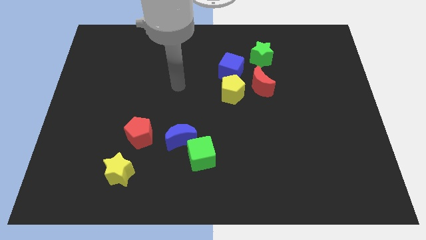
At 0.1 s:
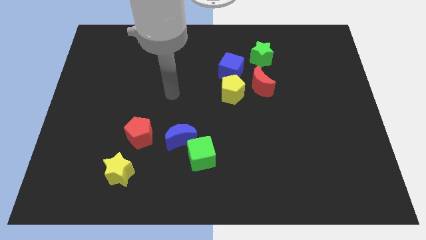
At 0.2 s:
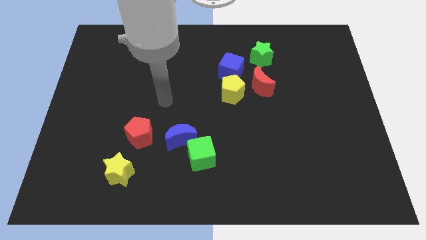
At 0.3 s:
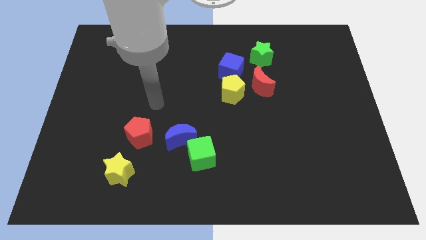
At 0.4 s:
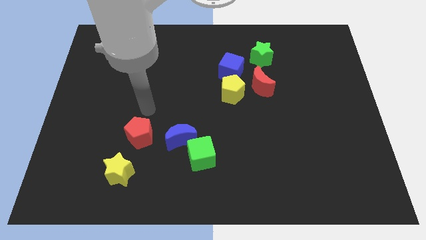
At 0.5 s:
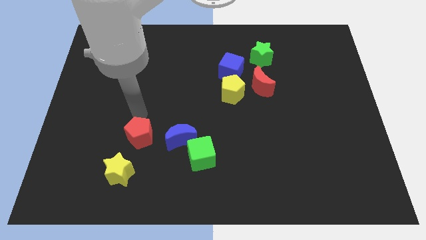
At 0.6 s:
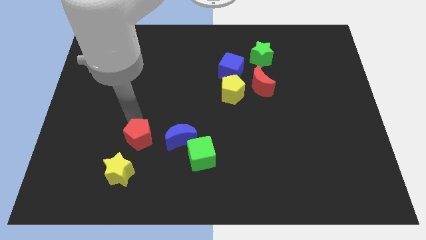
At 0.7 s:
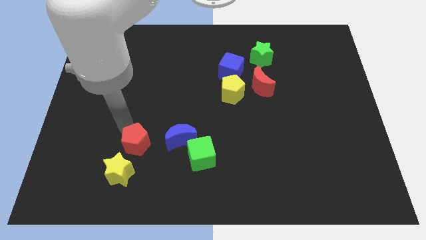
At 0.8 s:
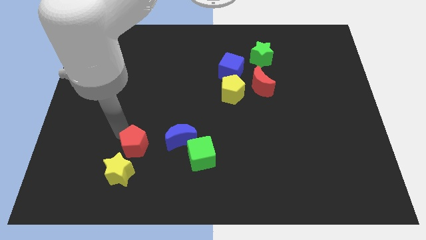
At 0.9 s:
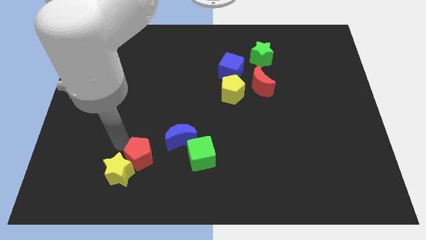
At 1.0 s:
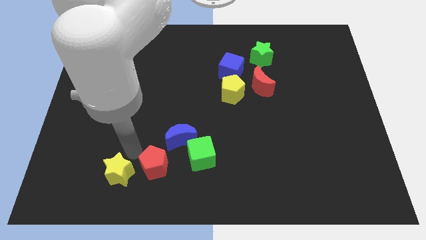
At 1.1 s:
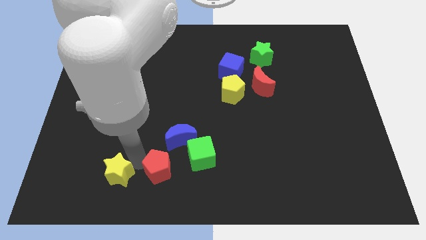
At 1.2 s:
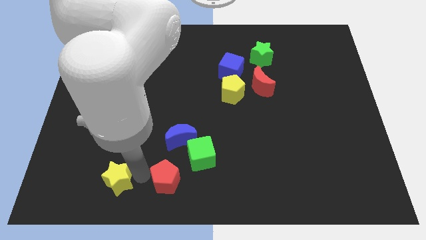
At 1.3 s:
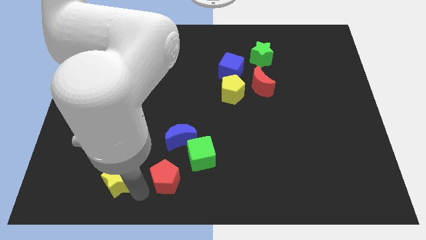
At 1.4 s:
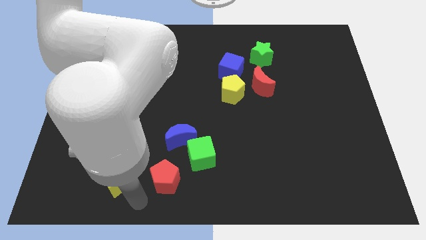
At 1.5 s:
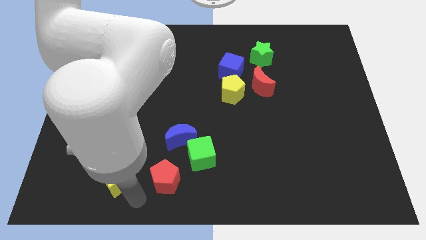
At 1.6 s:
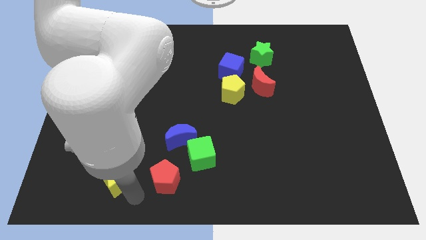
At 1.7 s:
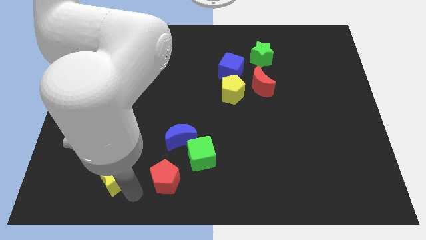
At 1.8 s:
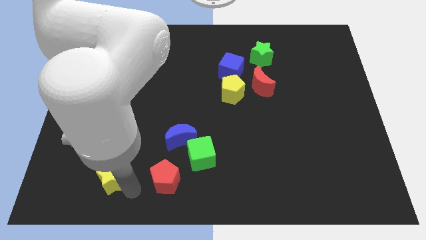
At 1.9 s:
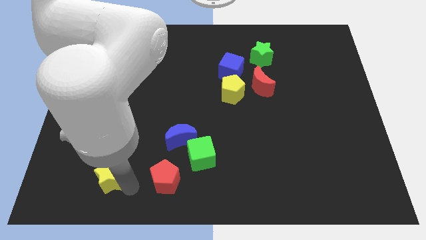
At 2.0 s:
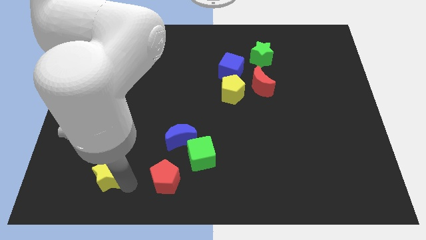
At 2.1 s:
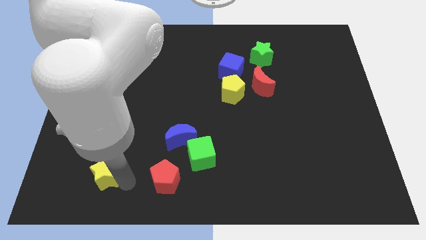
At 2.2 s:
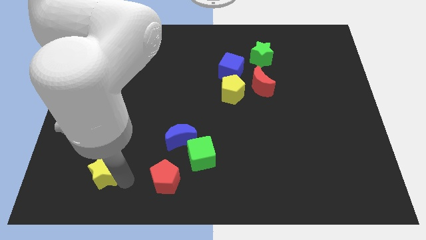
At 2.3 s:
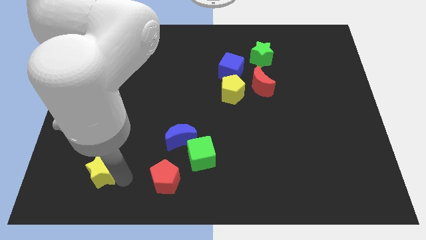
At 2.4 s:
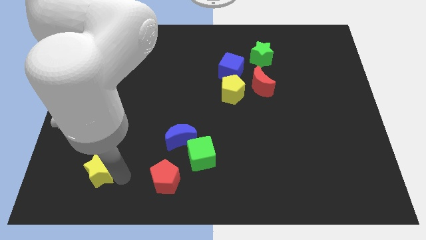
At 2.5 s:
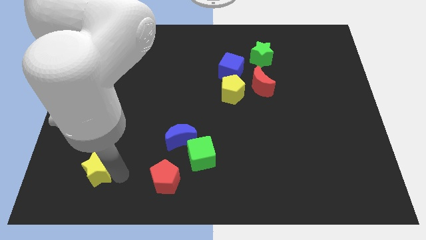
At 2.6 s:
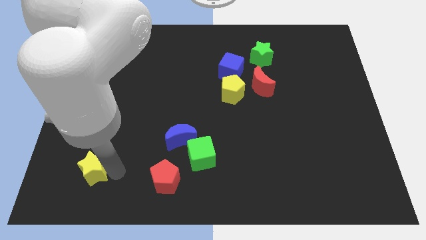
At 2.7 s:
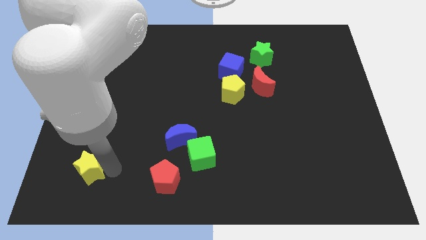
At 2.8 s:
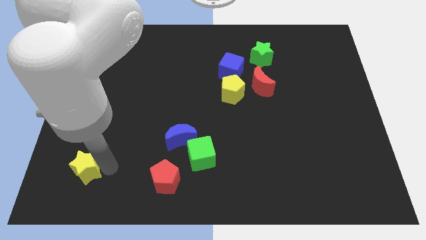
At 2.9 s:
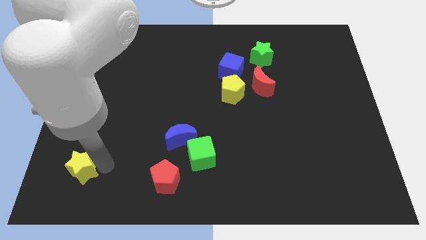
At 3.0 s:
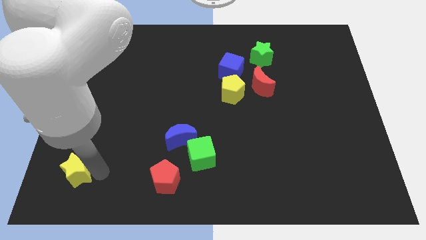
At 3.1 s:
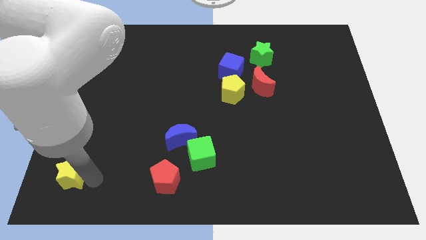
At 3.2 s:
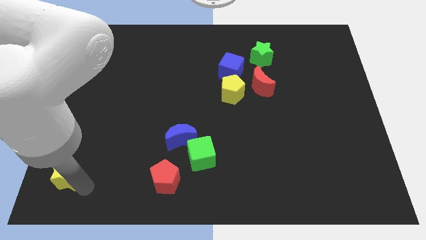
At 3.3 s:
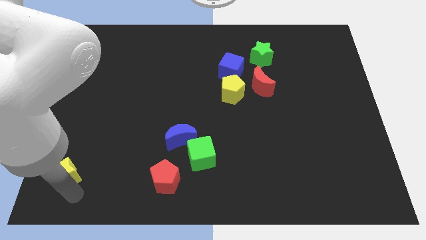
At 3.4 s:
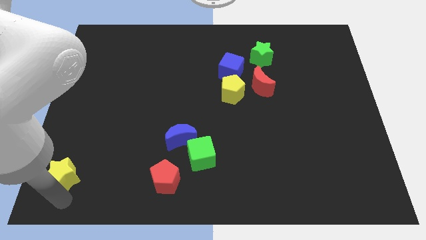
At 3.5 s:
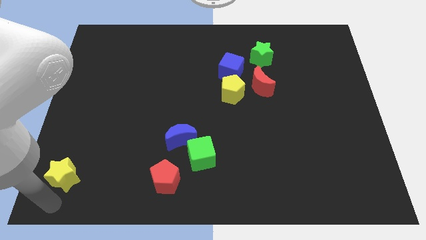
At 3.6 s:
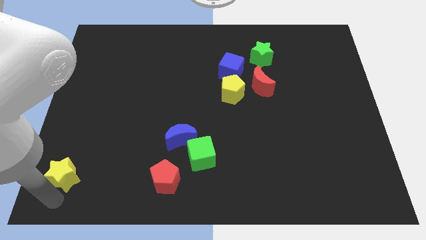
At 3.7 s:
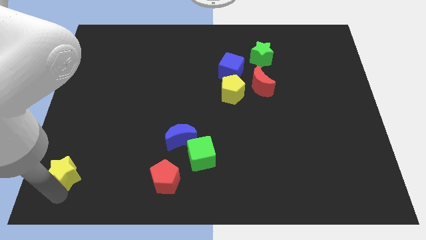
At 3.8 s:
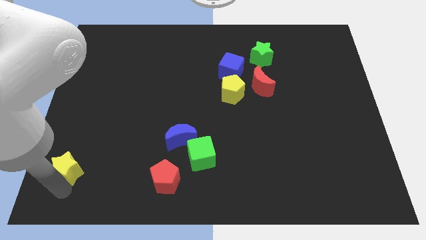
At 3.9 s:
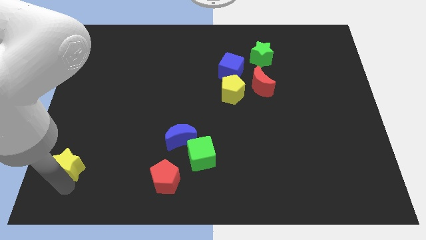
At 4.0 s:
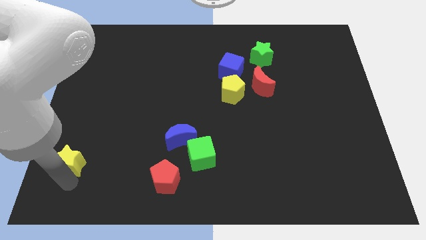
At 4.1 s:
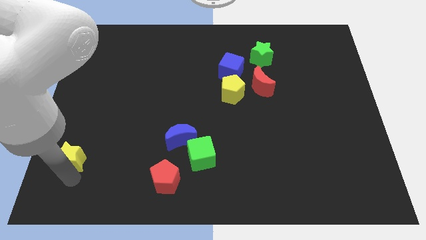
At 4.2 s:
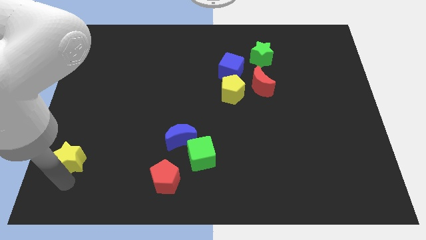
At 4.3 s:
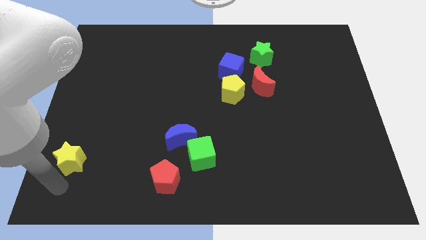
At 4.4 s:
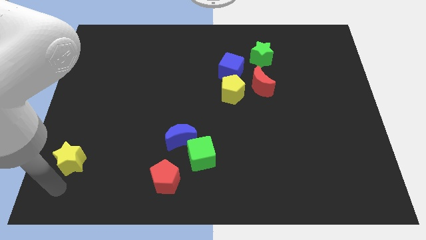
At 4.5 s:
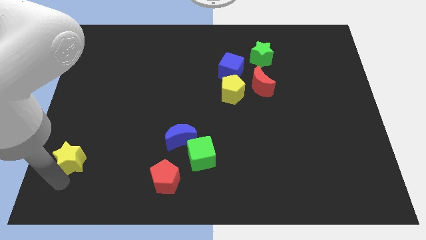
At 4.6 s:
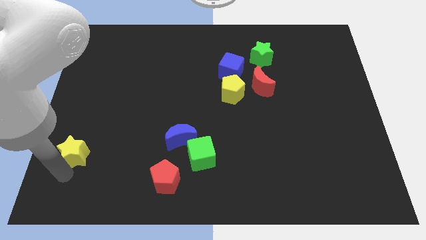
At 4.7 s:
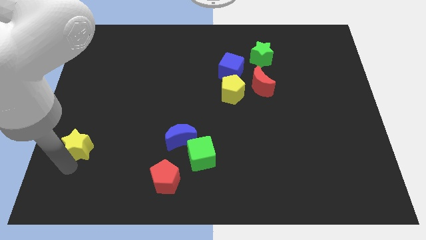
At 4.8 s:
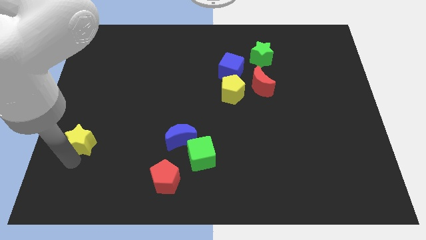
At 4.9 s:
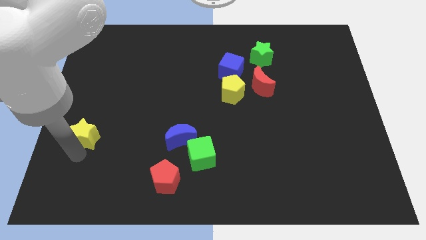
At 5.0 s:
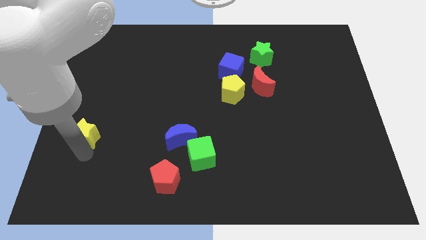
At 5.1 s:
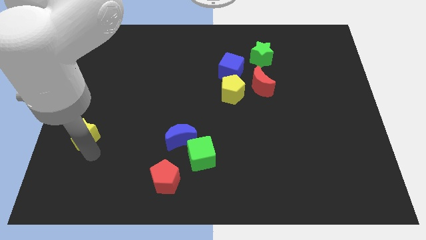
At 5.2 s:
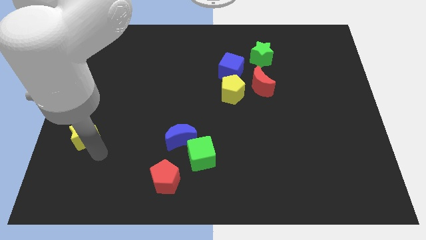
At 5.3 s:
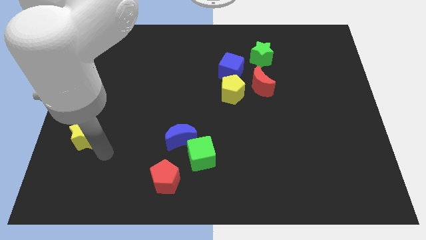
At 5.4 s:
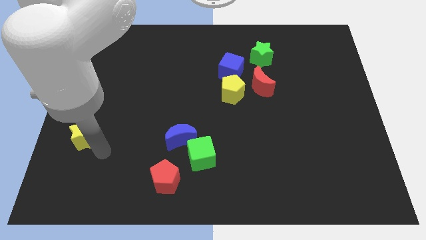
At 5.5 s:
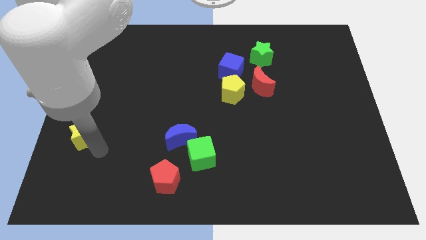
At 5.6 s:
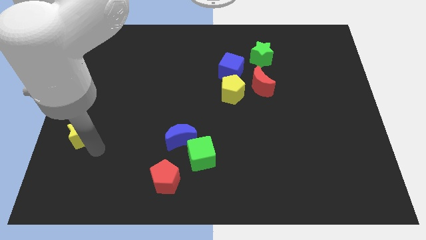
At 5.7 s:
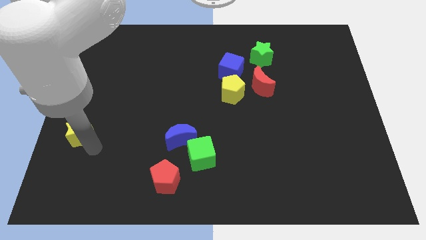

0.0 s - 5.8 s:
slide the yellow star to the center left

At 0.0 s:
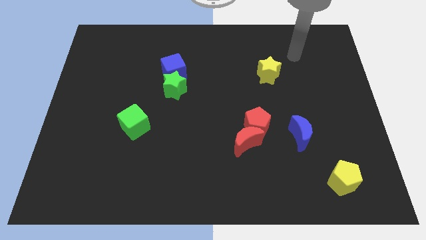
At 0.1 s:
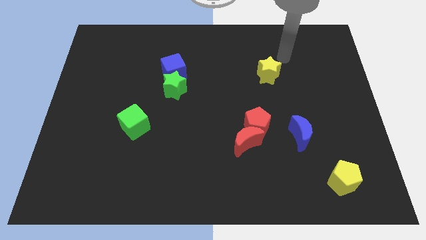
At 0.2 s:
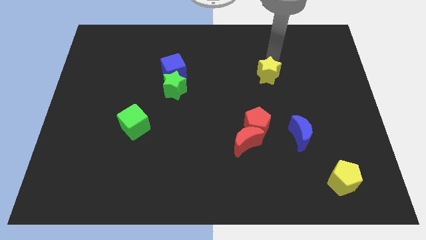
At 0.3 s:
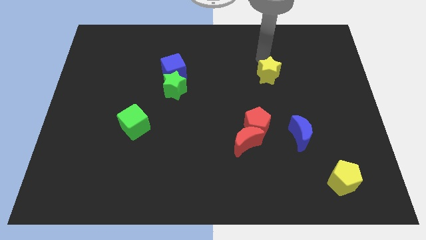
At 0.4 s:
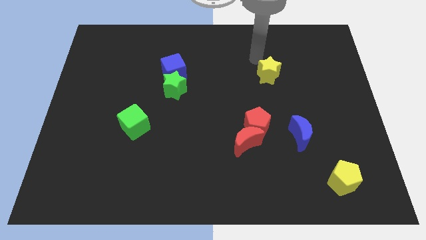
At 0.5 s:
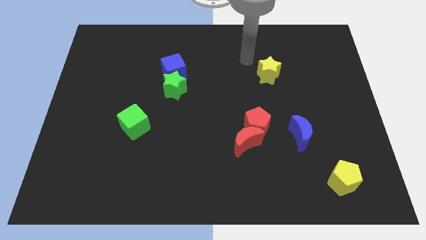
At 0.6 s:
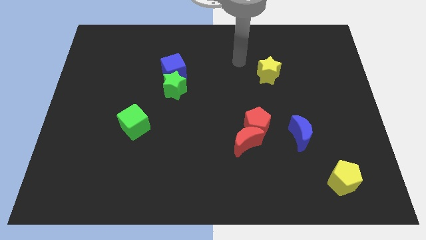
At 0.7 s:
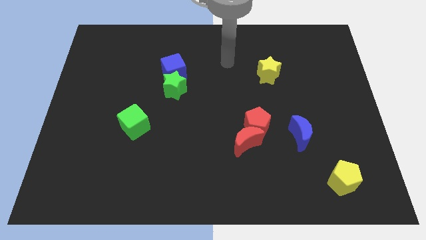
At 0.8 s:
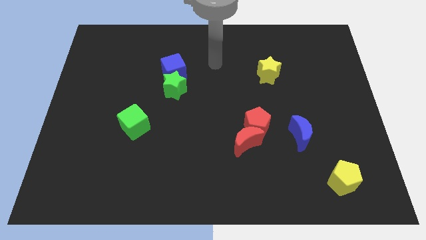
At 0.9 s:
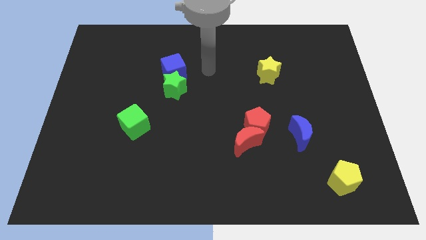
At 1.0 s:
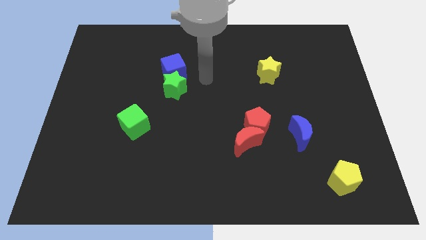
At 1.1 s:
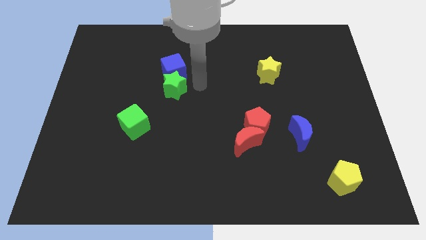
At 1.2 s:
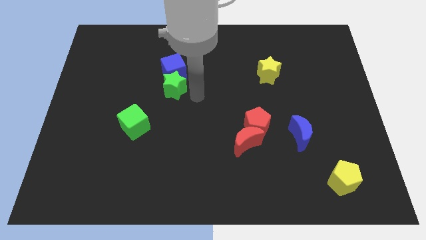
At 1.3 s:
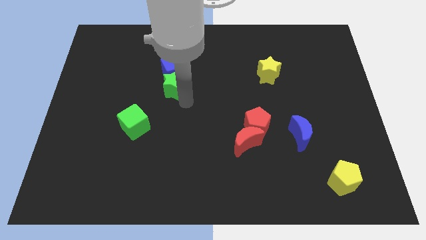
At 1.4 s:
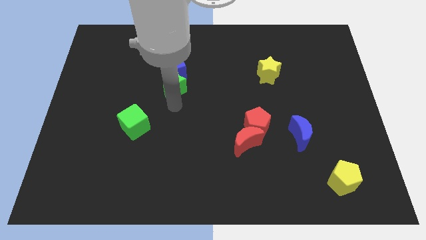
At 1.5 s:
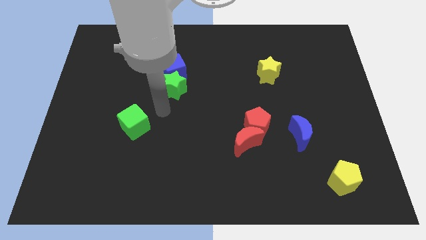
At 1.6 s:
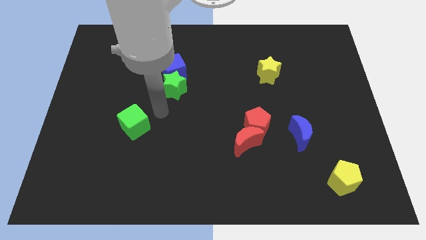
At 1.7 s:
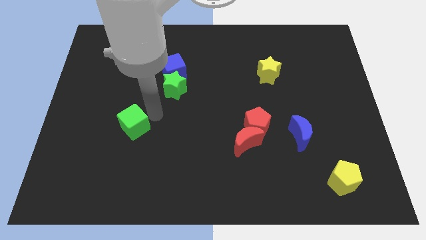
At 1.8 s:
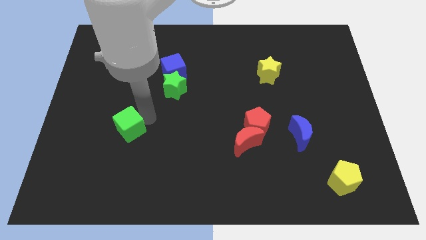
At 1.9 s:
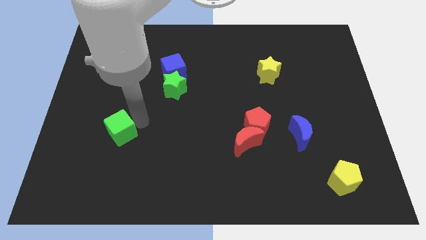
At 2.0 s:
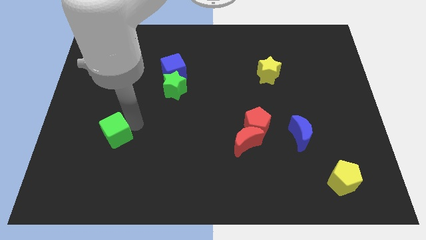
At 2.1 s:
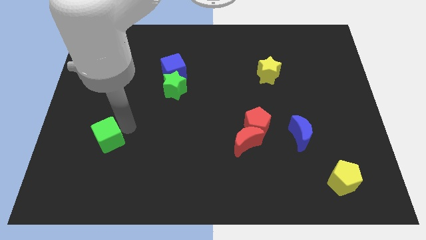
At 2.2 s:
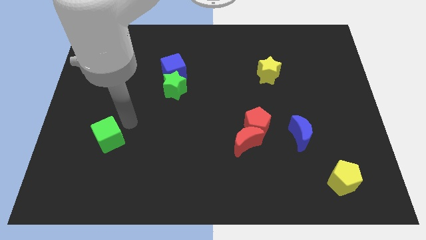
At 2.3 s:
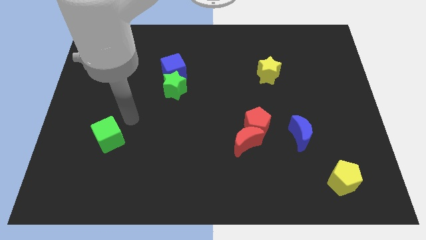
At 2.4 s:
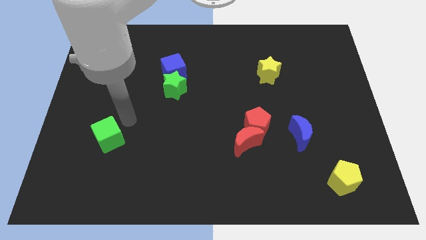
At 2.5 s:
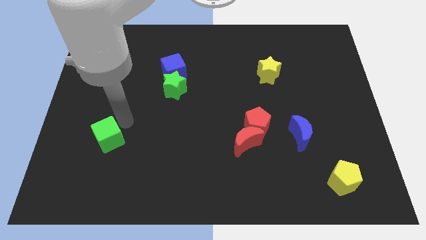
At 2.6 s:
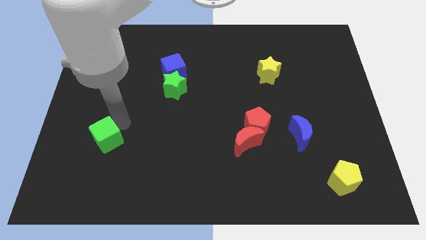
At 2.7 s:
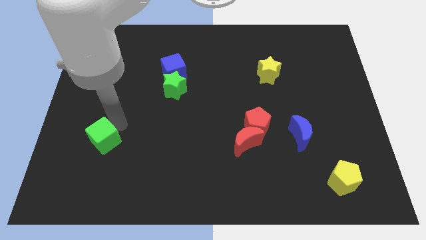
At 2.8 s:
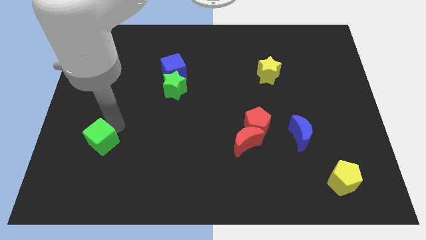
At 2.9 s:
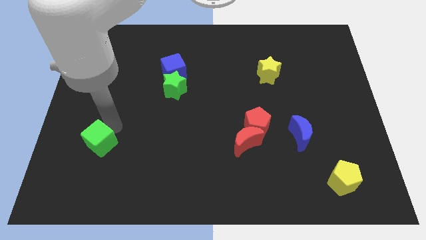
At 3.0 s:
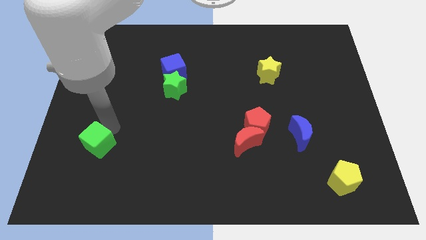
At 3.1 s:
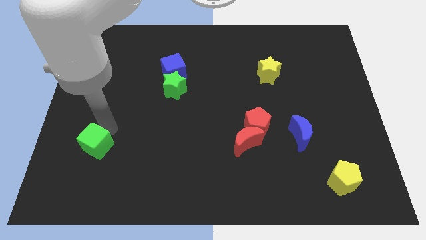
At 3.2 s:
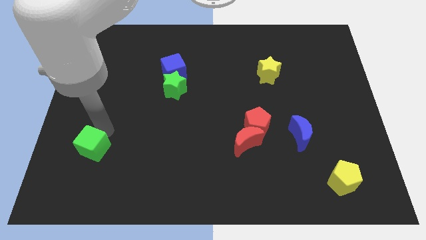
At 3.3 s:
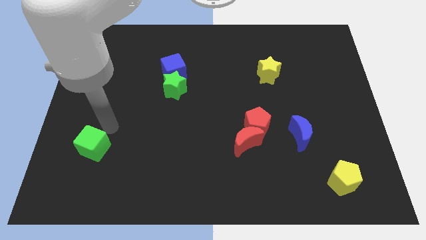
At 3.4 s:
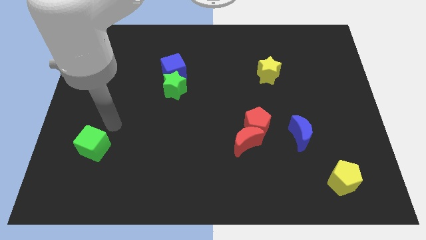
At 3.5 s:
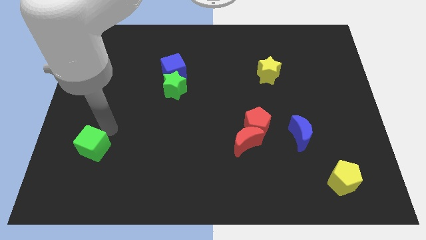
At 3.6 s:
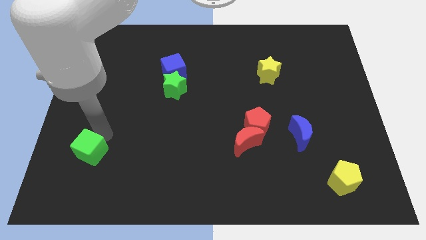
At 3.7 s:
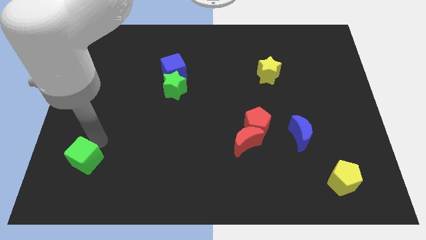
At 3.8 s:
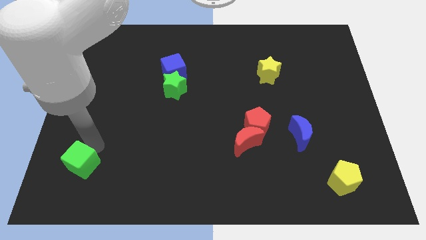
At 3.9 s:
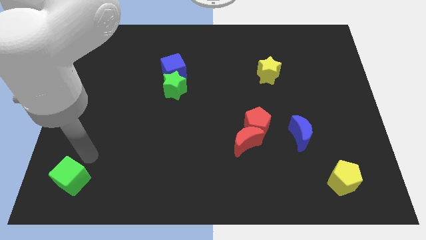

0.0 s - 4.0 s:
push the green cube to the lower left corner
